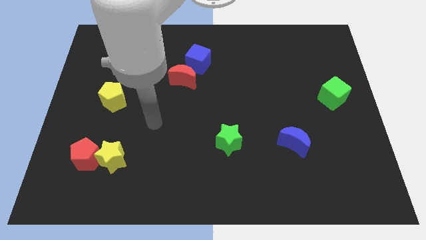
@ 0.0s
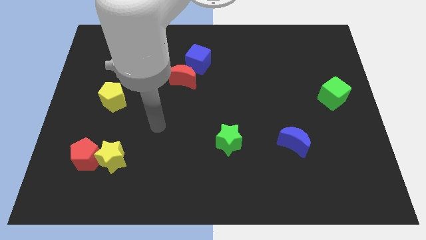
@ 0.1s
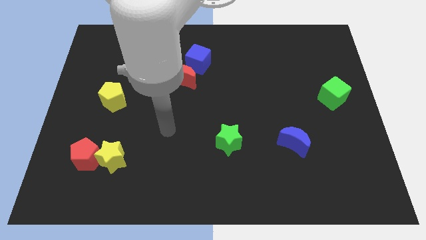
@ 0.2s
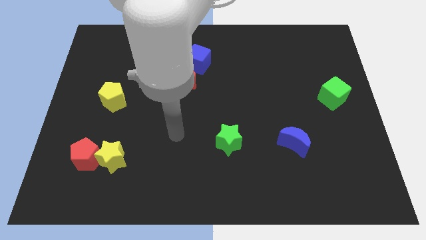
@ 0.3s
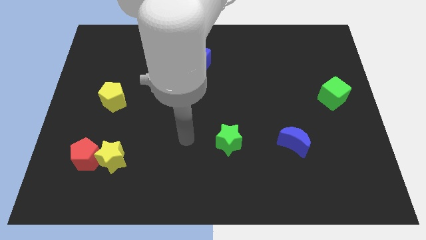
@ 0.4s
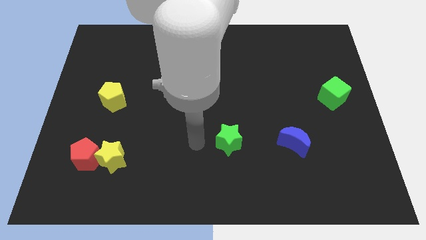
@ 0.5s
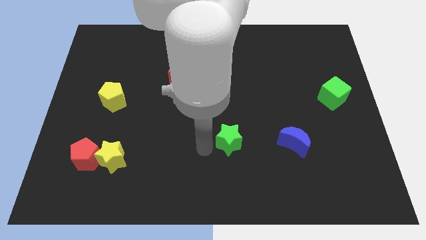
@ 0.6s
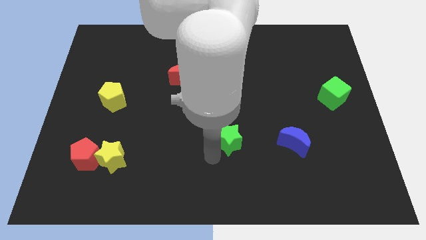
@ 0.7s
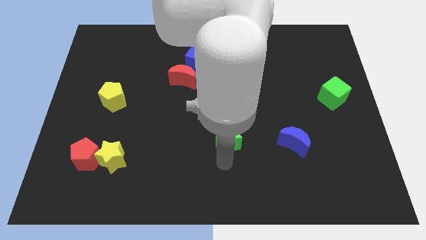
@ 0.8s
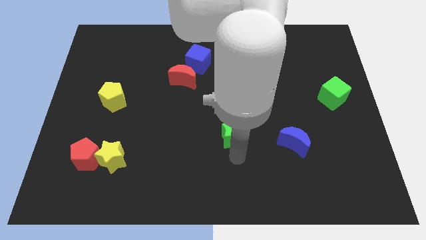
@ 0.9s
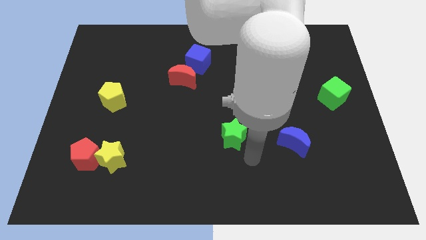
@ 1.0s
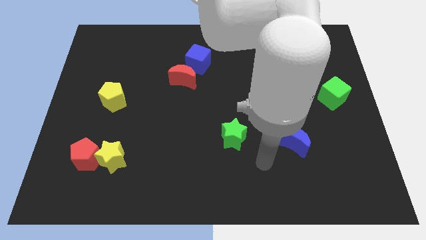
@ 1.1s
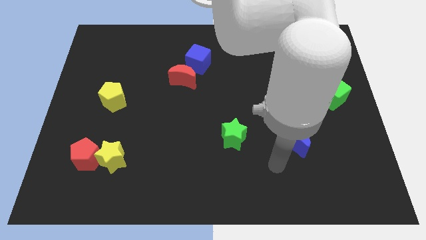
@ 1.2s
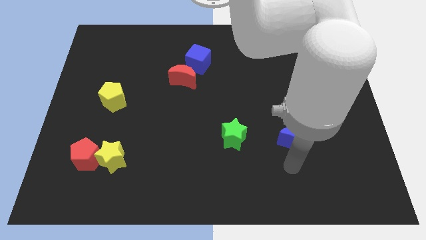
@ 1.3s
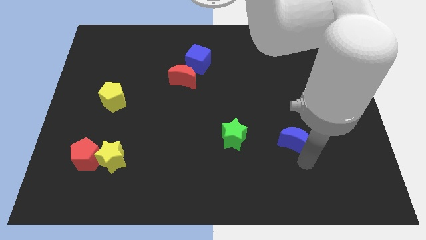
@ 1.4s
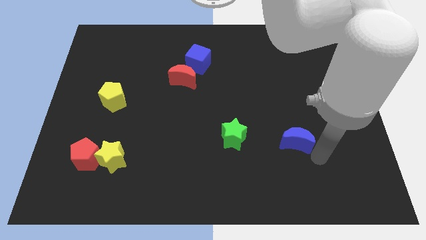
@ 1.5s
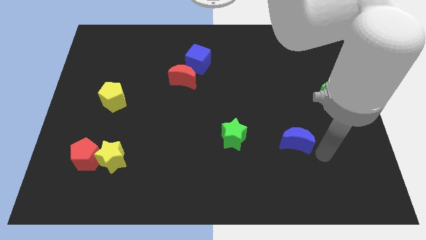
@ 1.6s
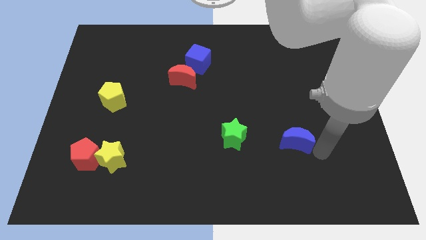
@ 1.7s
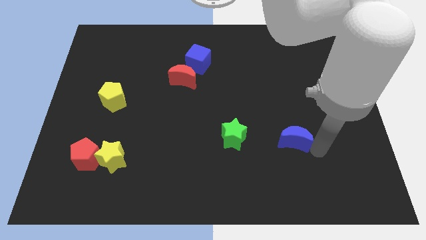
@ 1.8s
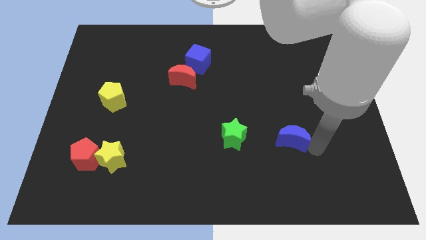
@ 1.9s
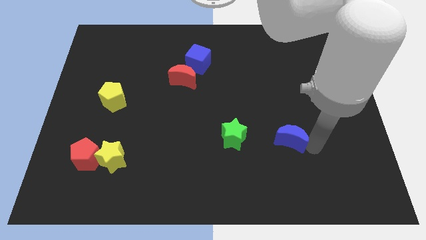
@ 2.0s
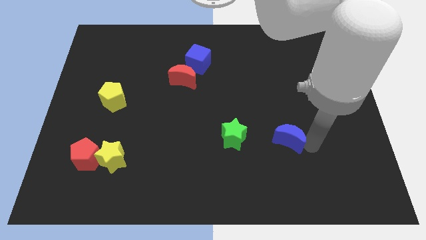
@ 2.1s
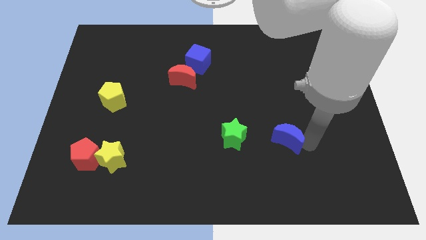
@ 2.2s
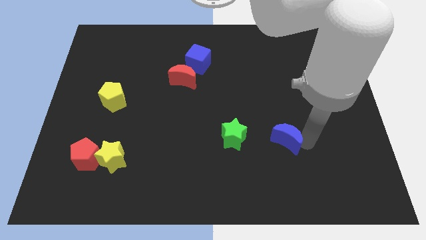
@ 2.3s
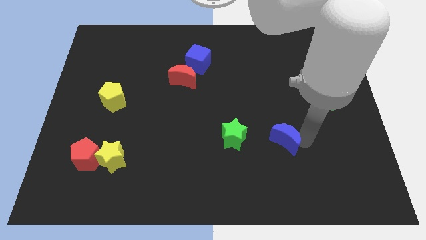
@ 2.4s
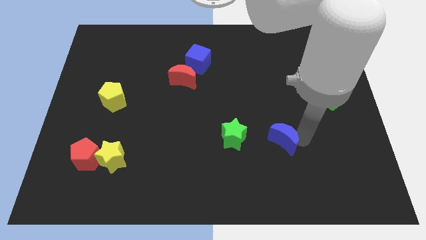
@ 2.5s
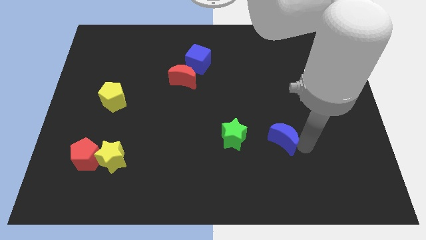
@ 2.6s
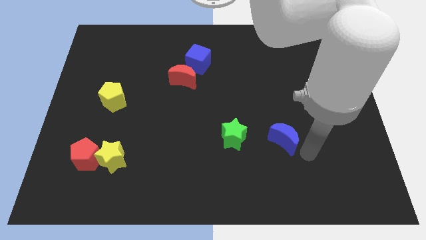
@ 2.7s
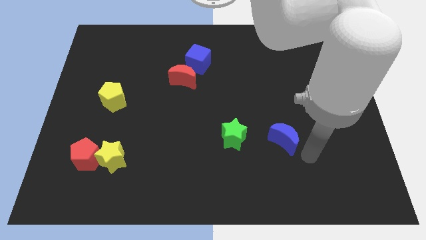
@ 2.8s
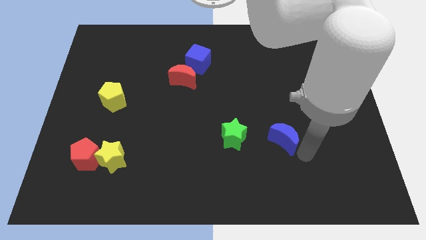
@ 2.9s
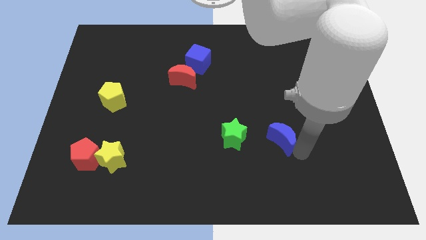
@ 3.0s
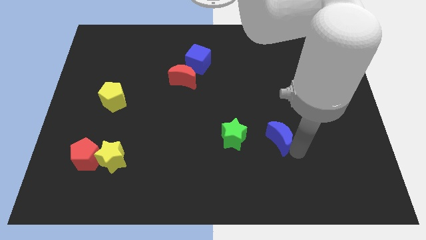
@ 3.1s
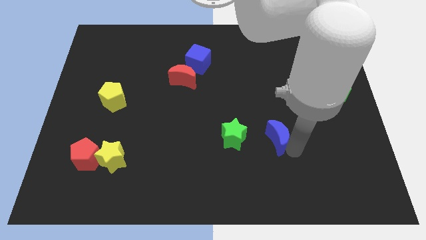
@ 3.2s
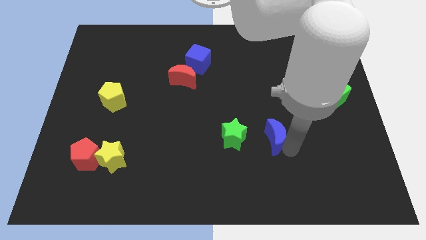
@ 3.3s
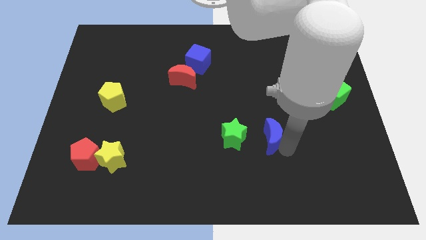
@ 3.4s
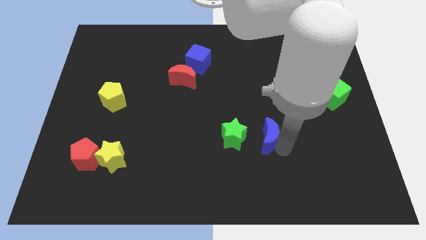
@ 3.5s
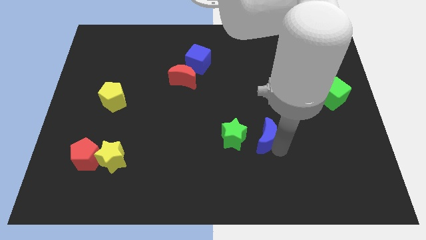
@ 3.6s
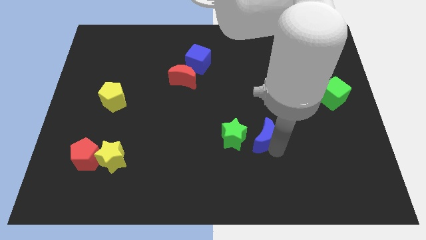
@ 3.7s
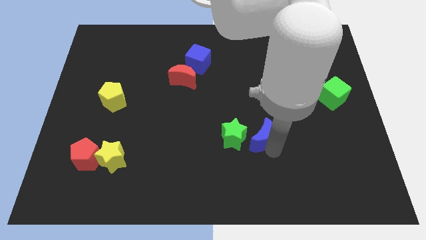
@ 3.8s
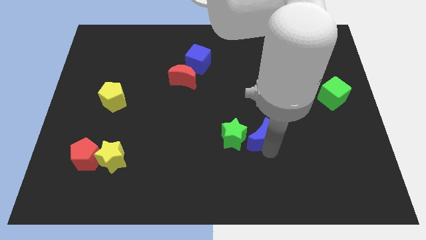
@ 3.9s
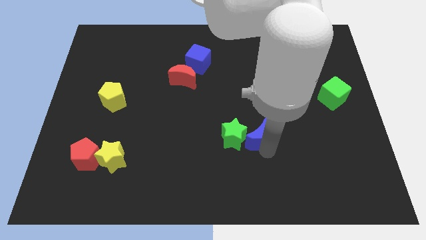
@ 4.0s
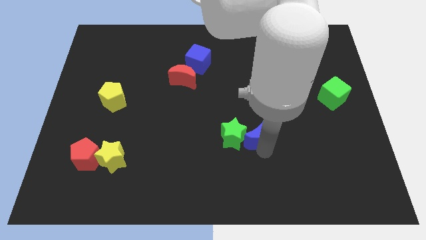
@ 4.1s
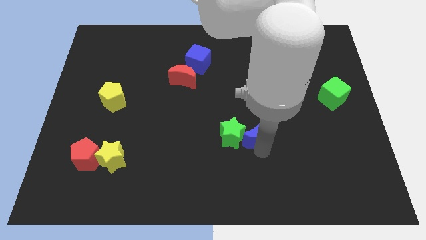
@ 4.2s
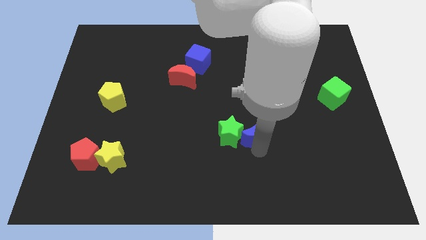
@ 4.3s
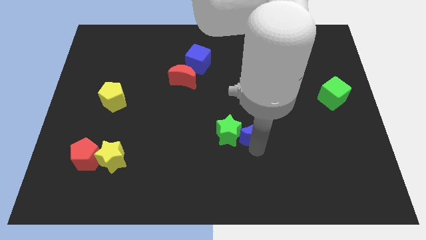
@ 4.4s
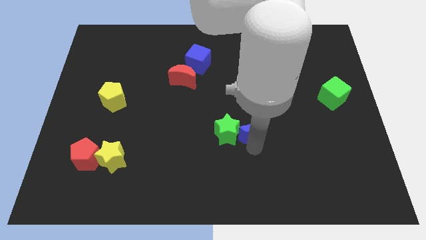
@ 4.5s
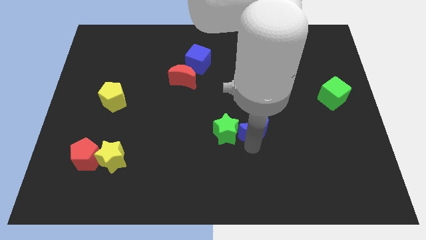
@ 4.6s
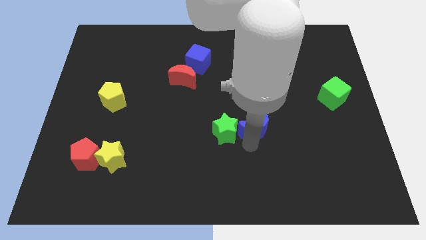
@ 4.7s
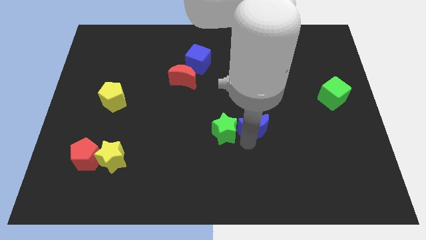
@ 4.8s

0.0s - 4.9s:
move the blue moon to the middle of the board

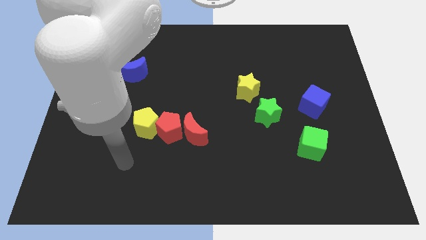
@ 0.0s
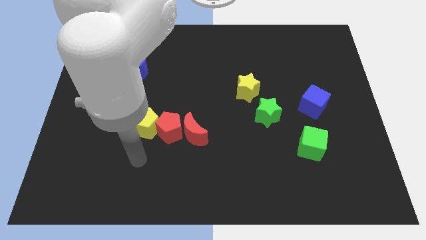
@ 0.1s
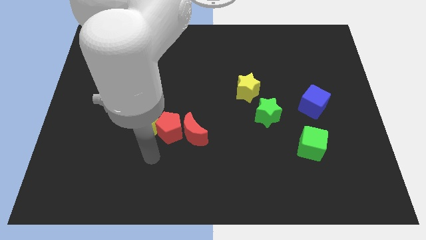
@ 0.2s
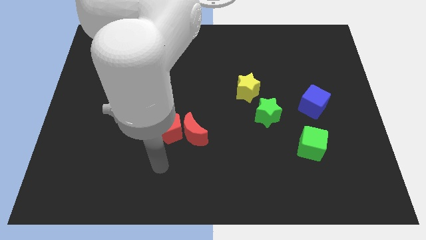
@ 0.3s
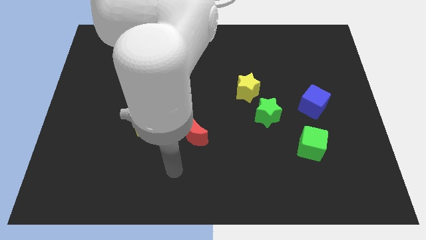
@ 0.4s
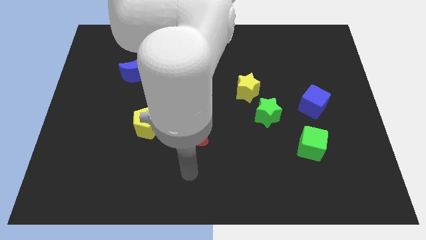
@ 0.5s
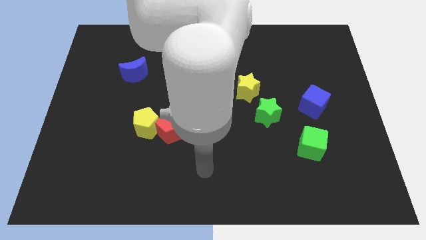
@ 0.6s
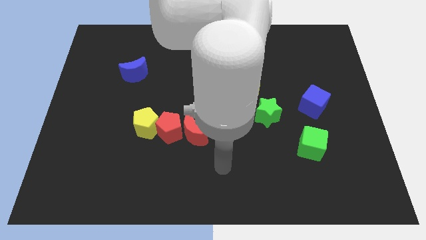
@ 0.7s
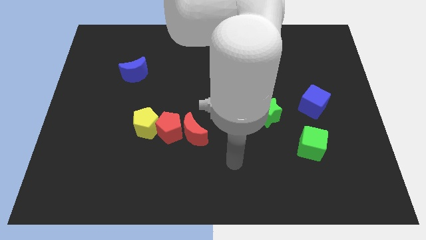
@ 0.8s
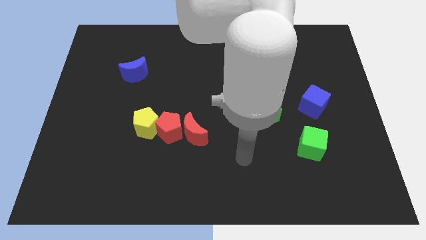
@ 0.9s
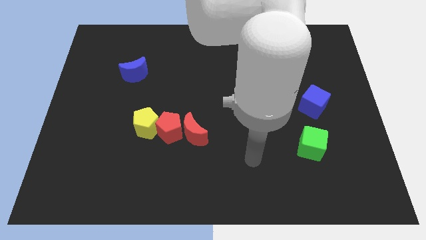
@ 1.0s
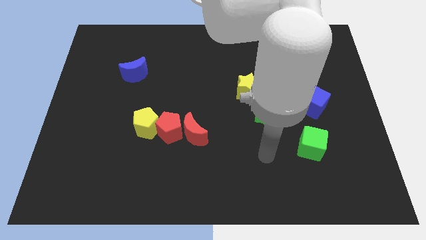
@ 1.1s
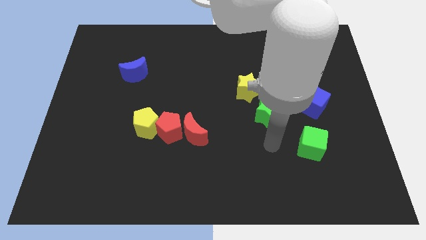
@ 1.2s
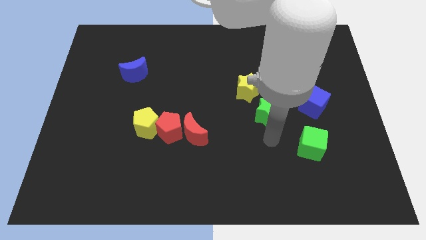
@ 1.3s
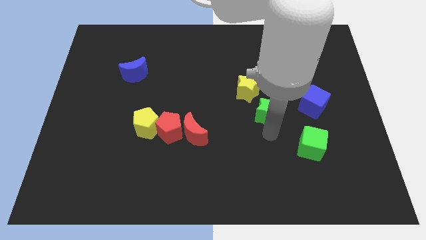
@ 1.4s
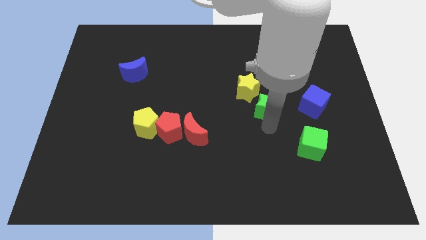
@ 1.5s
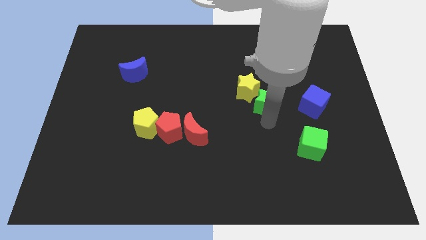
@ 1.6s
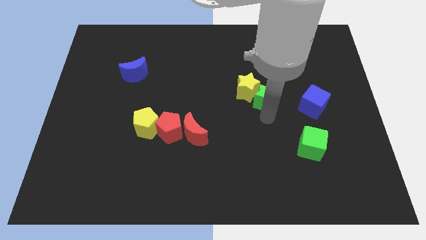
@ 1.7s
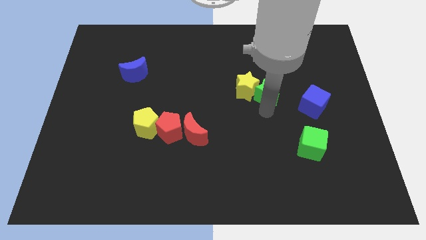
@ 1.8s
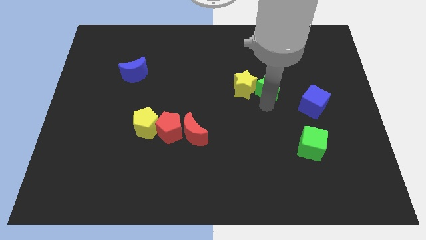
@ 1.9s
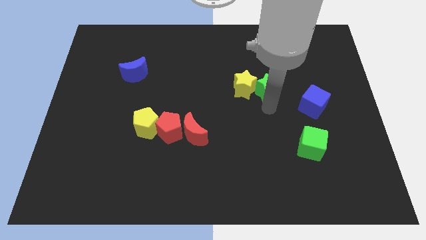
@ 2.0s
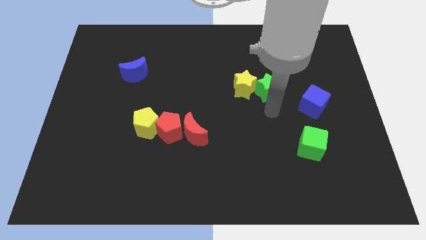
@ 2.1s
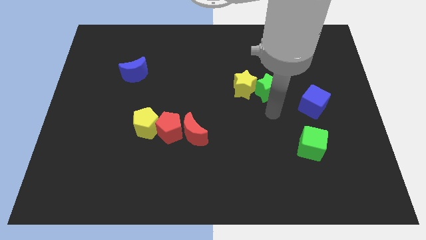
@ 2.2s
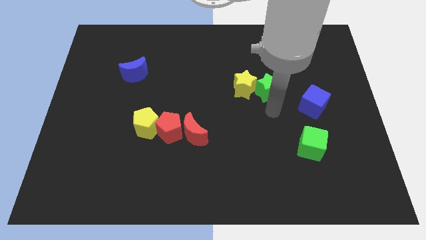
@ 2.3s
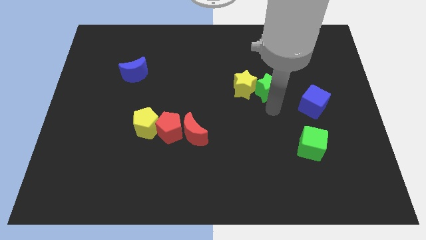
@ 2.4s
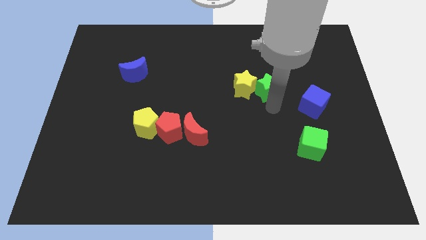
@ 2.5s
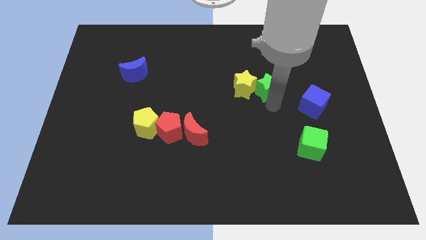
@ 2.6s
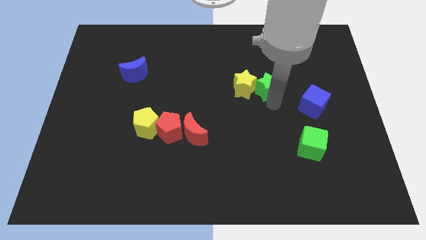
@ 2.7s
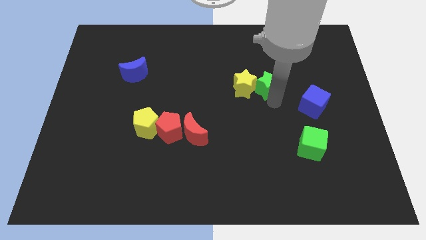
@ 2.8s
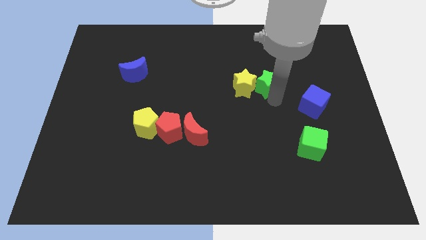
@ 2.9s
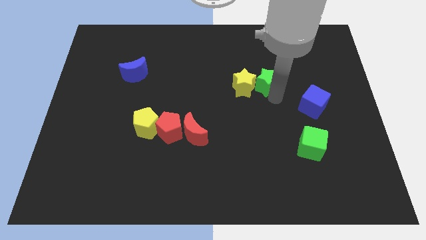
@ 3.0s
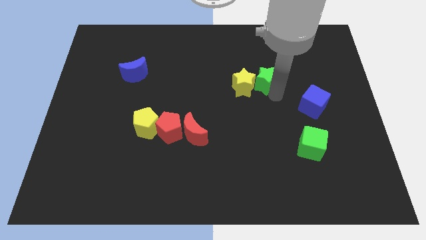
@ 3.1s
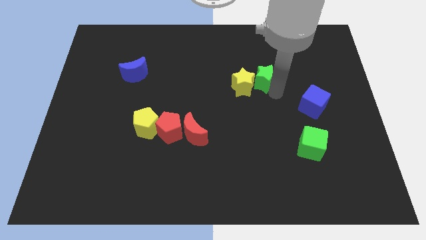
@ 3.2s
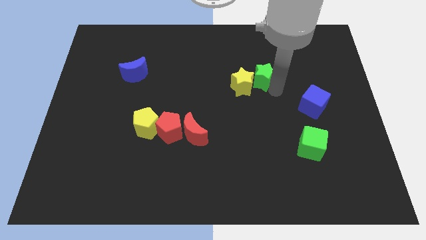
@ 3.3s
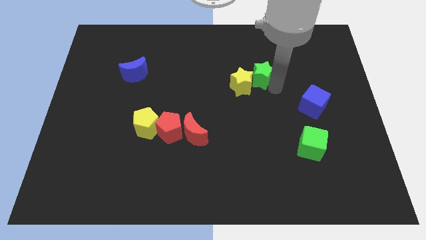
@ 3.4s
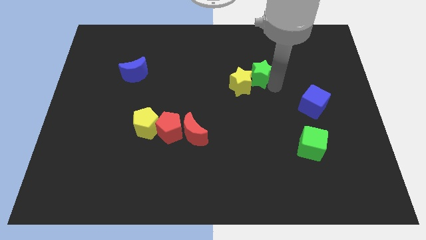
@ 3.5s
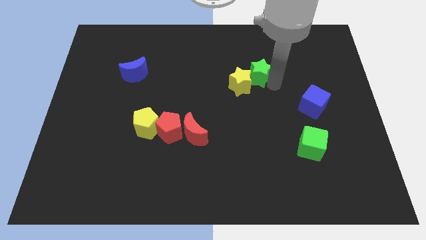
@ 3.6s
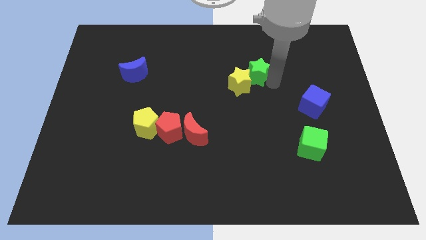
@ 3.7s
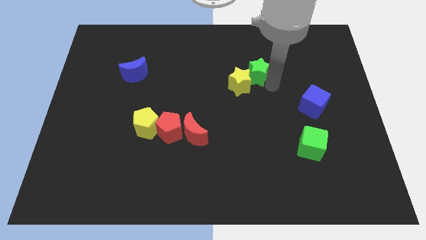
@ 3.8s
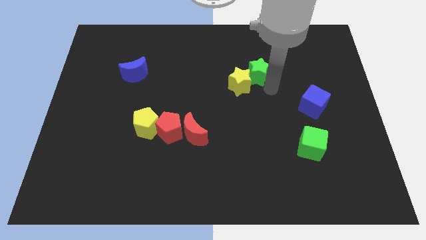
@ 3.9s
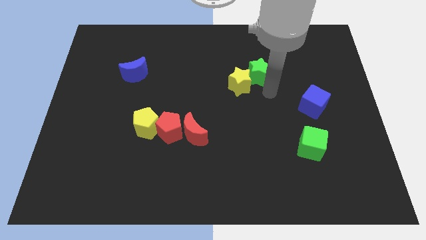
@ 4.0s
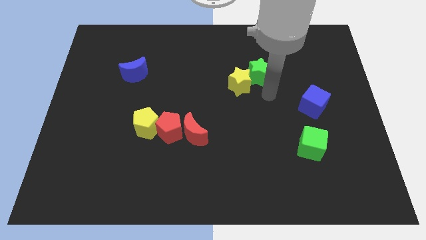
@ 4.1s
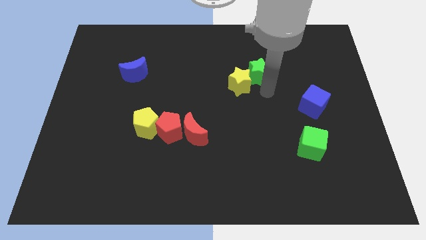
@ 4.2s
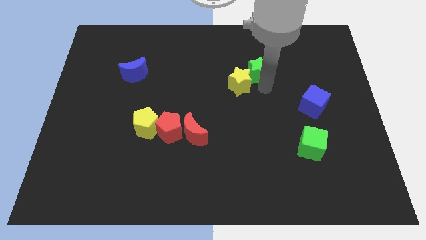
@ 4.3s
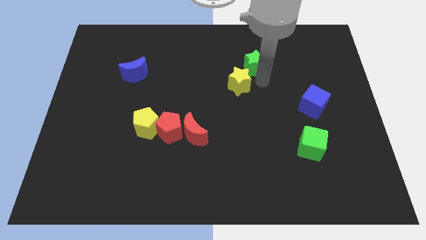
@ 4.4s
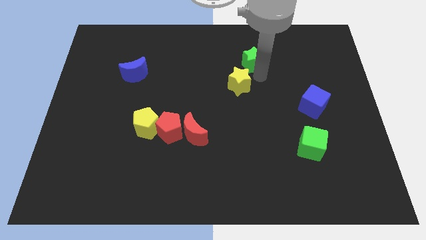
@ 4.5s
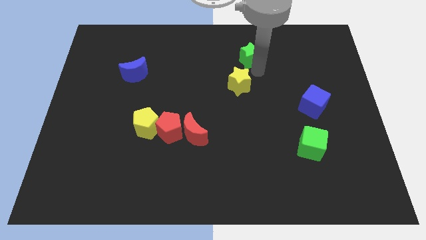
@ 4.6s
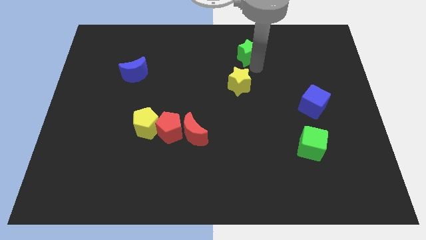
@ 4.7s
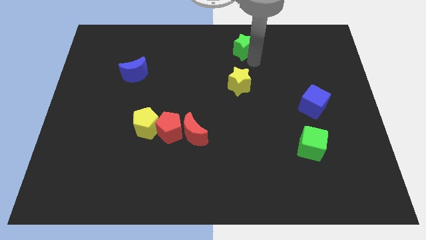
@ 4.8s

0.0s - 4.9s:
put the green star to the top side
